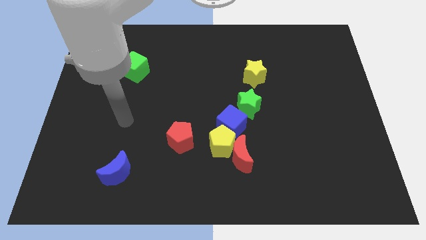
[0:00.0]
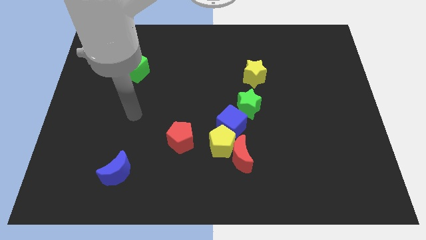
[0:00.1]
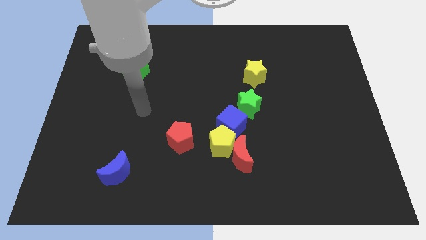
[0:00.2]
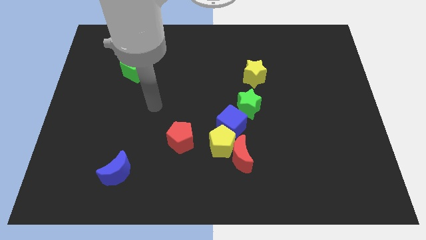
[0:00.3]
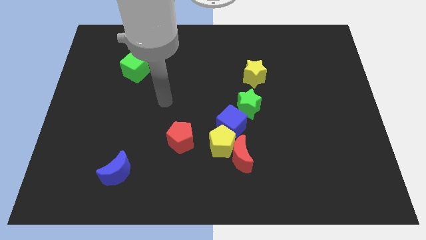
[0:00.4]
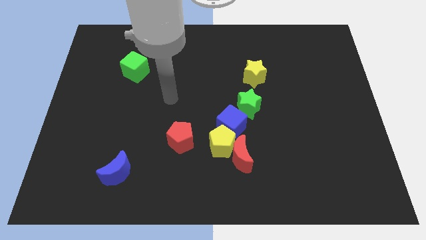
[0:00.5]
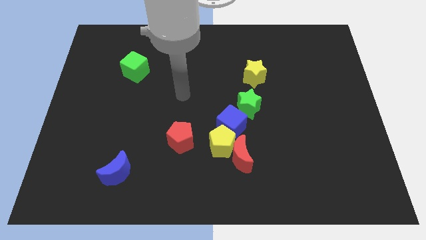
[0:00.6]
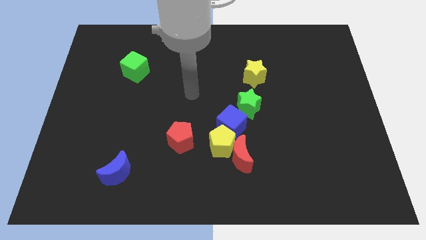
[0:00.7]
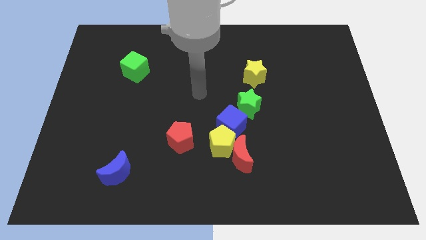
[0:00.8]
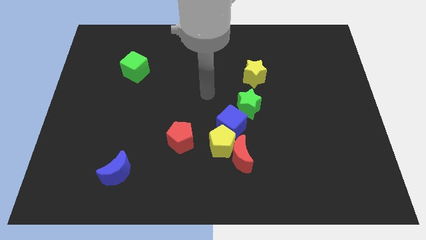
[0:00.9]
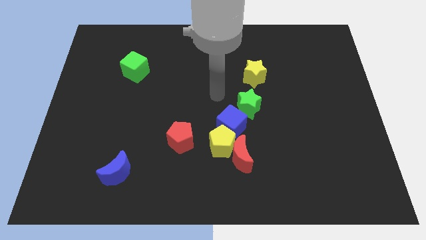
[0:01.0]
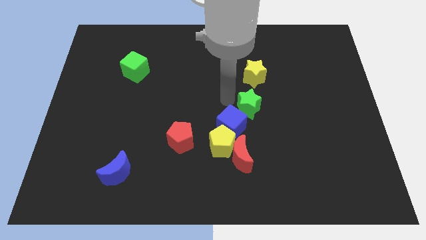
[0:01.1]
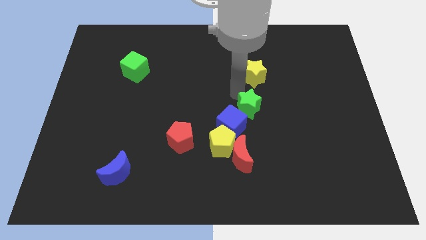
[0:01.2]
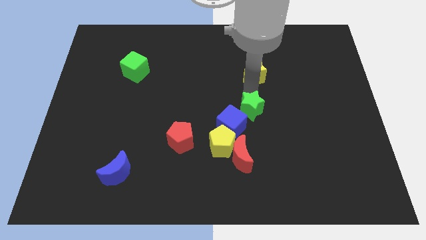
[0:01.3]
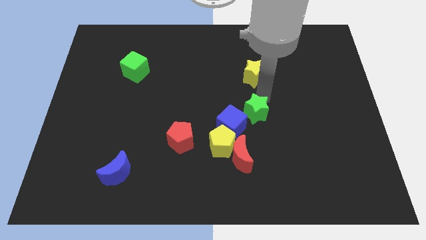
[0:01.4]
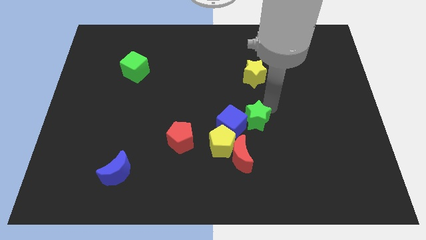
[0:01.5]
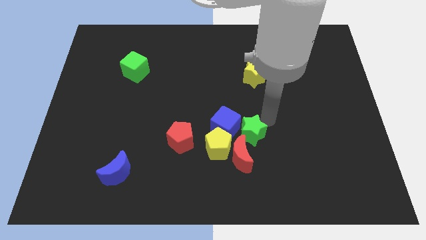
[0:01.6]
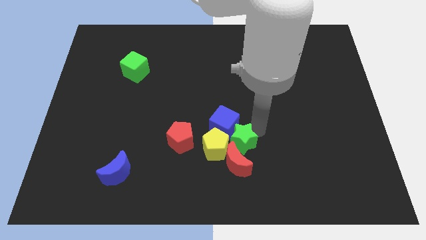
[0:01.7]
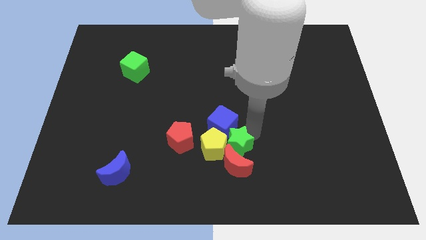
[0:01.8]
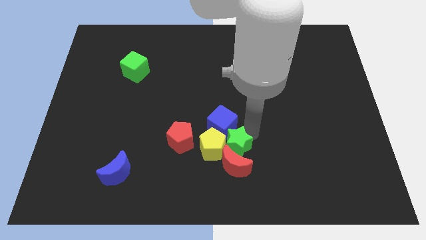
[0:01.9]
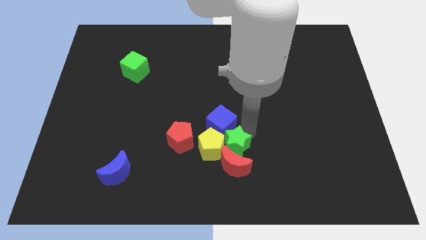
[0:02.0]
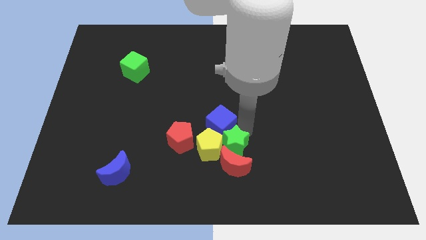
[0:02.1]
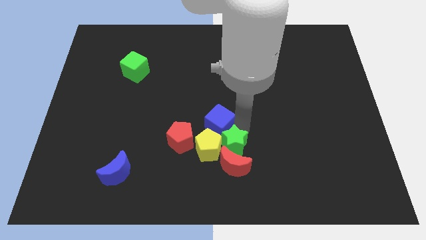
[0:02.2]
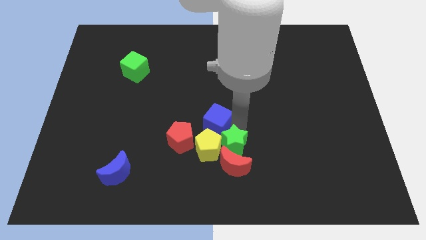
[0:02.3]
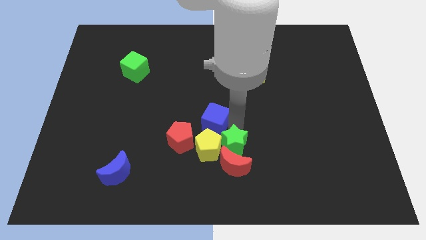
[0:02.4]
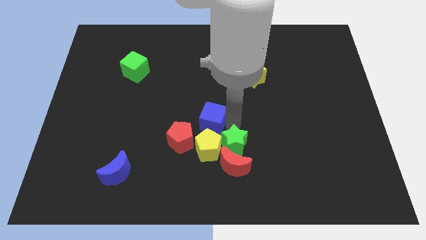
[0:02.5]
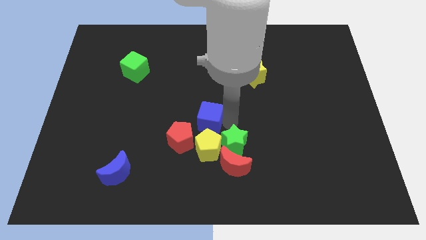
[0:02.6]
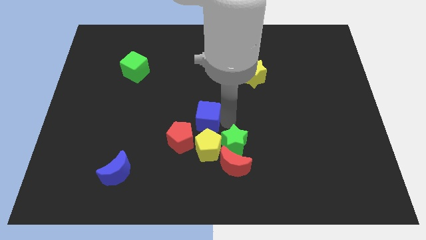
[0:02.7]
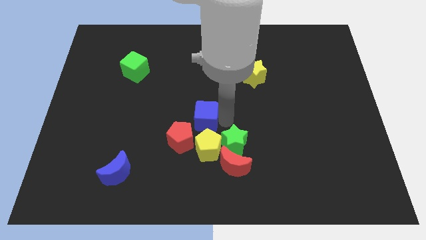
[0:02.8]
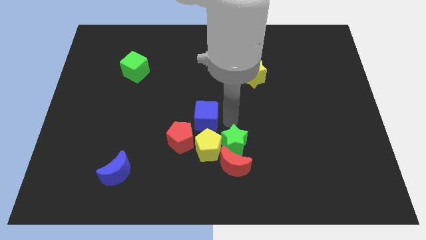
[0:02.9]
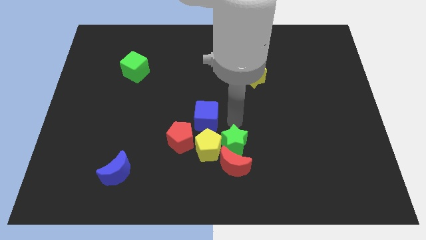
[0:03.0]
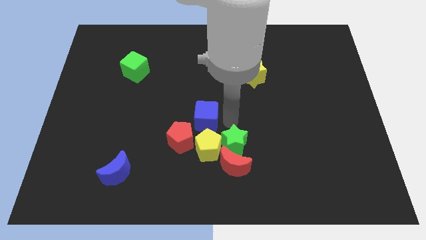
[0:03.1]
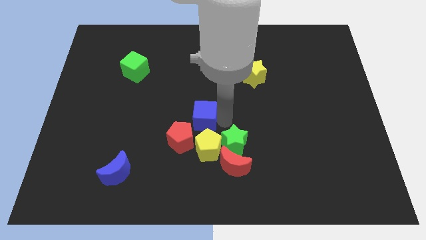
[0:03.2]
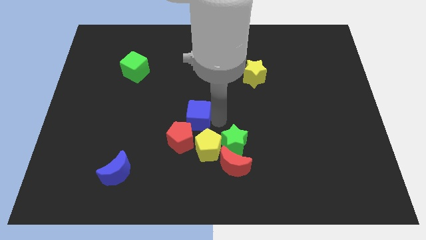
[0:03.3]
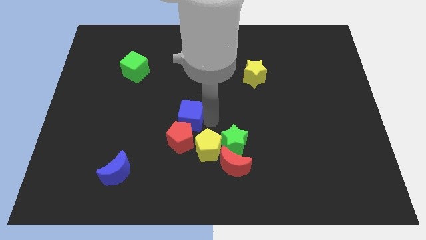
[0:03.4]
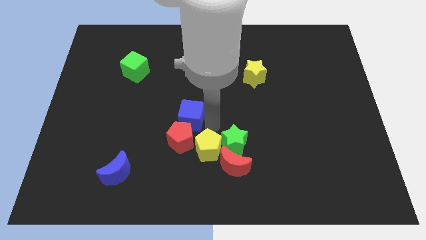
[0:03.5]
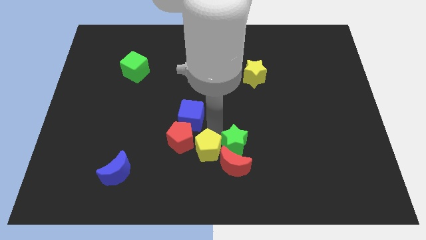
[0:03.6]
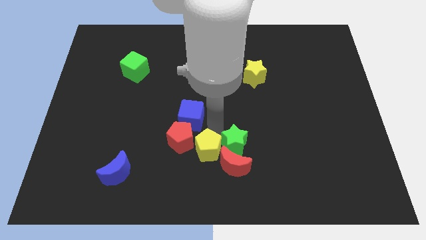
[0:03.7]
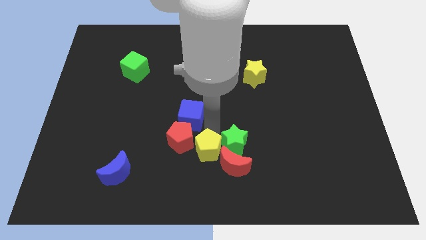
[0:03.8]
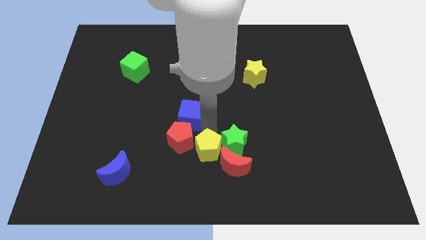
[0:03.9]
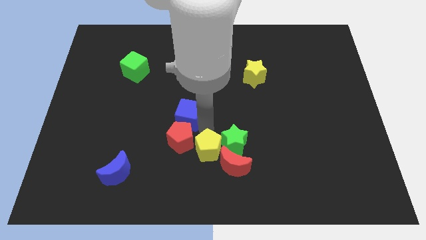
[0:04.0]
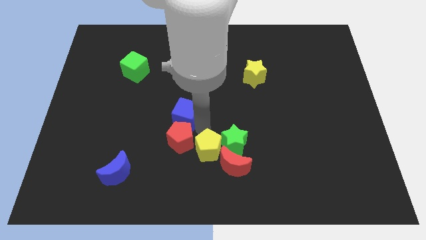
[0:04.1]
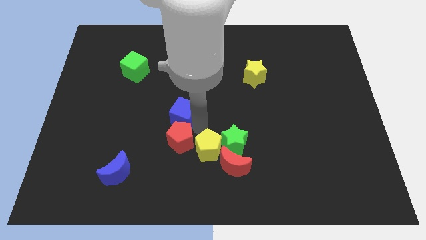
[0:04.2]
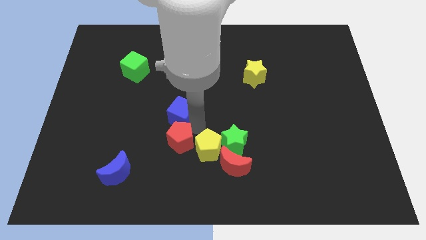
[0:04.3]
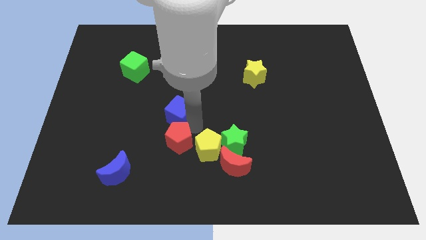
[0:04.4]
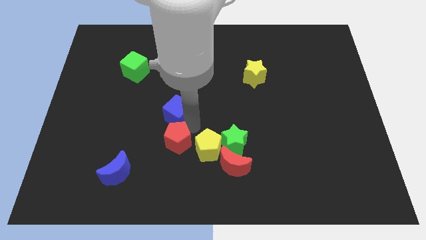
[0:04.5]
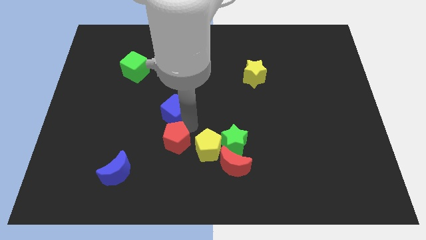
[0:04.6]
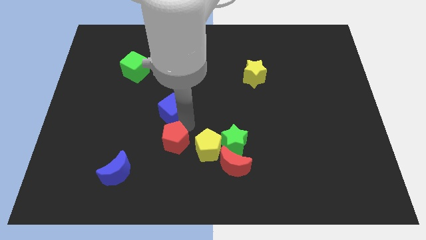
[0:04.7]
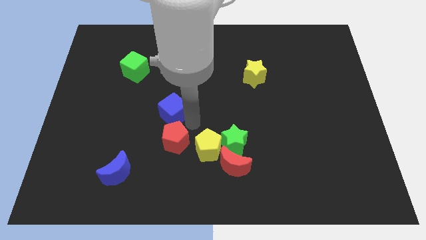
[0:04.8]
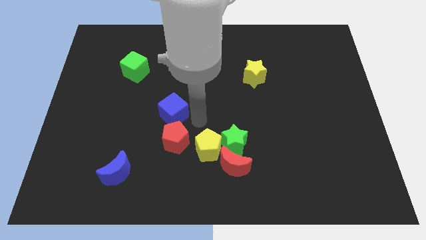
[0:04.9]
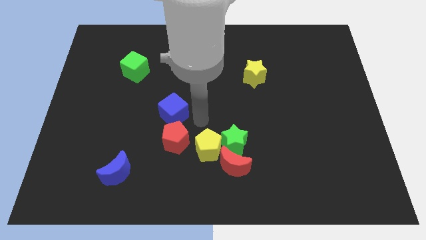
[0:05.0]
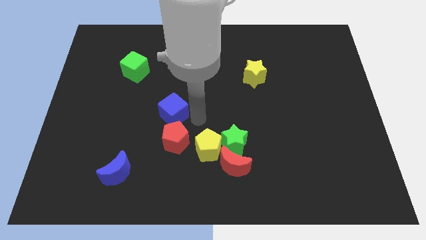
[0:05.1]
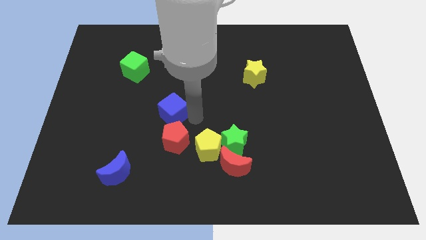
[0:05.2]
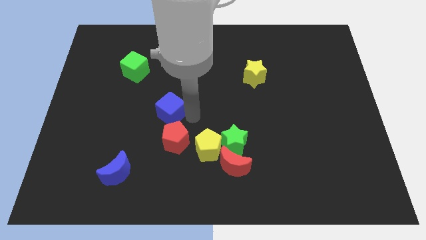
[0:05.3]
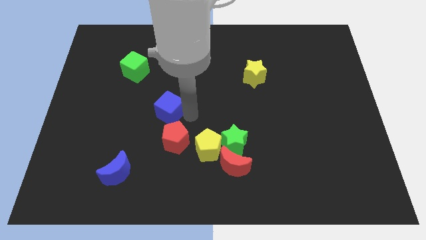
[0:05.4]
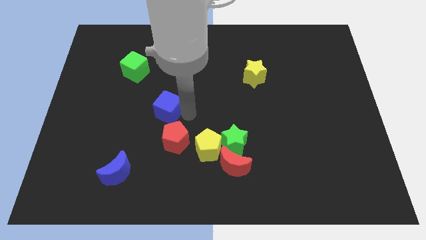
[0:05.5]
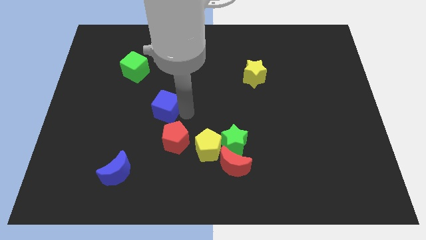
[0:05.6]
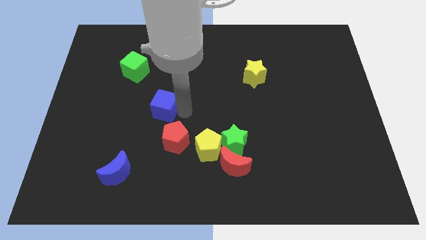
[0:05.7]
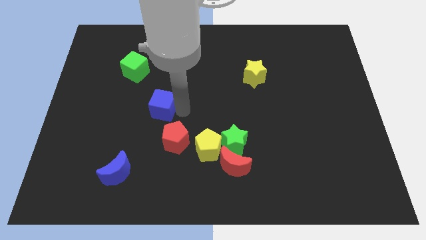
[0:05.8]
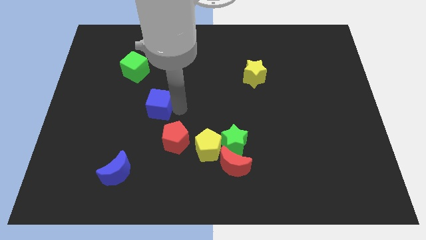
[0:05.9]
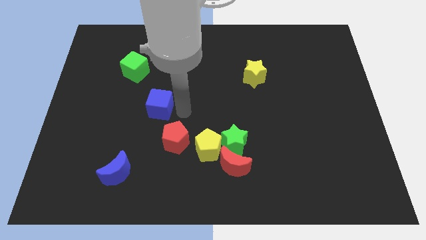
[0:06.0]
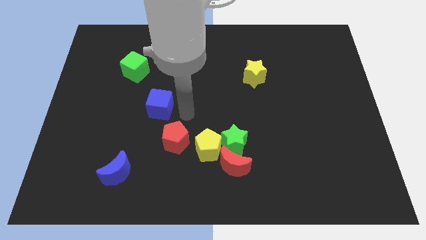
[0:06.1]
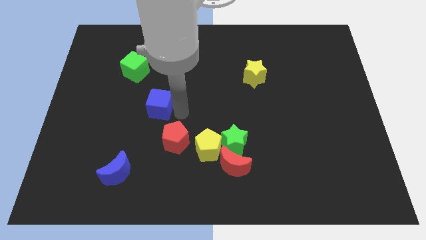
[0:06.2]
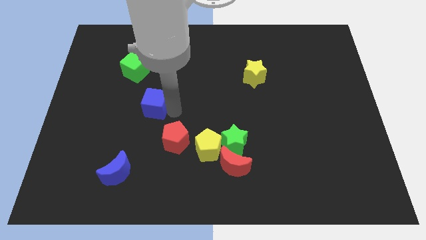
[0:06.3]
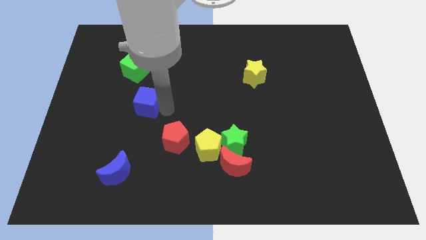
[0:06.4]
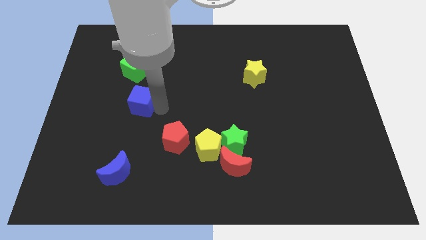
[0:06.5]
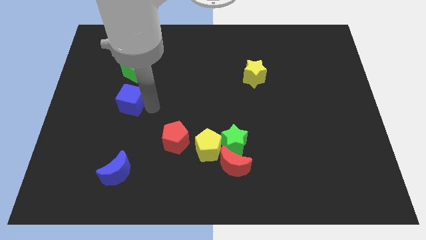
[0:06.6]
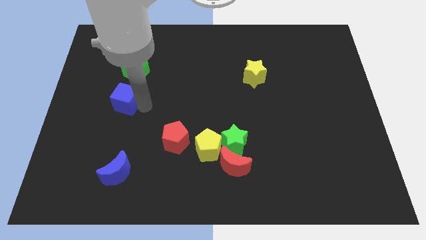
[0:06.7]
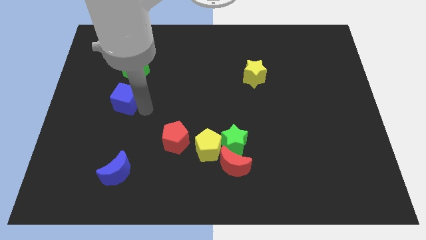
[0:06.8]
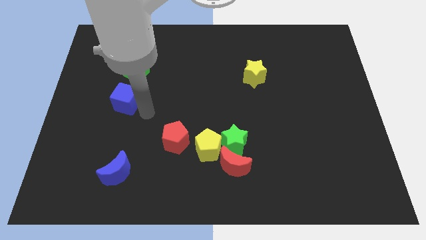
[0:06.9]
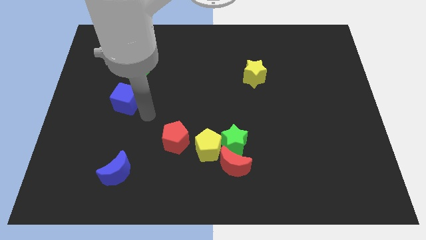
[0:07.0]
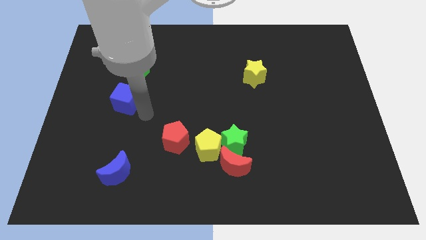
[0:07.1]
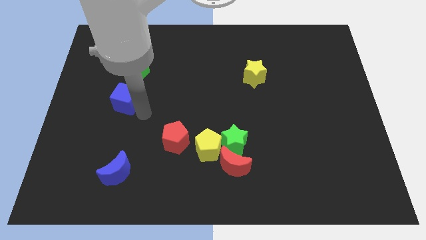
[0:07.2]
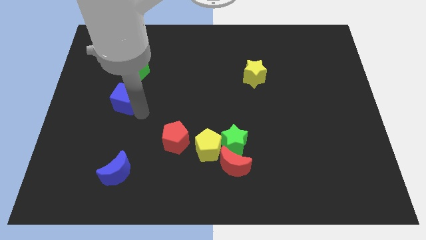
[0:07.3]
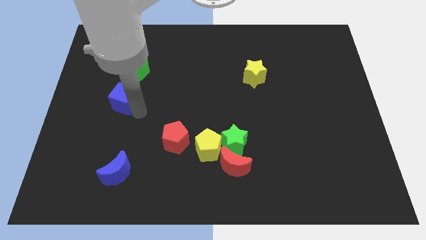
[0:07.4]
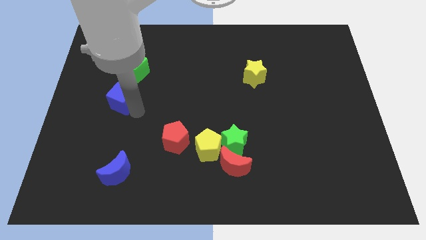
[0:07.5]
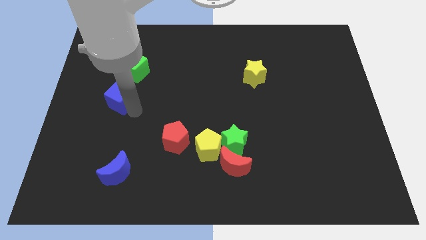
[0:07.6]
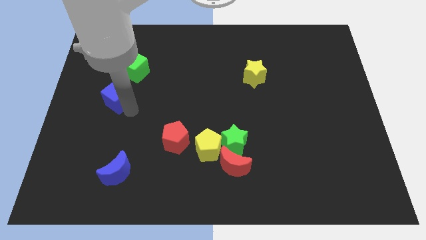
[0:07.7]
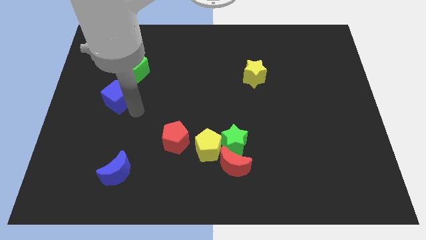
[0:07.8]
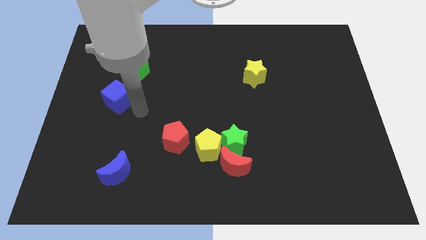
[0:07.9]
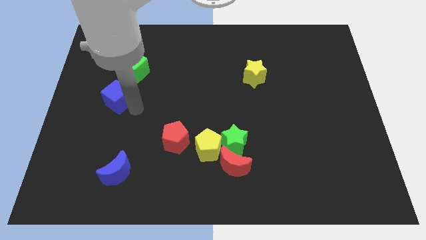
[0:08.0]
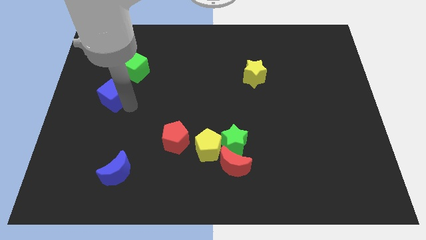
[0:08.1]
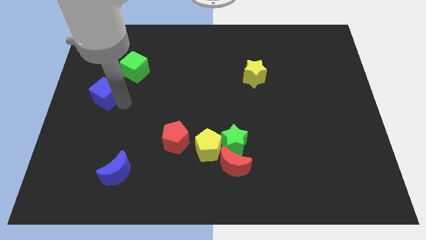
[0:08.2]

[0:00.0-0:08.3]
put the blue cube to the center left
